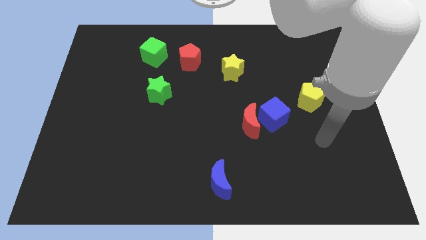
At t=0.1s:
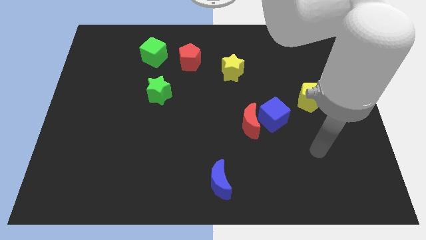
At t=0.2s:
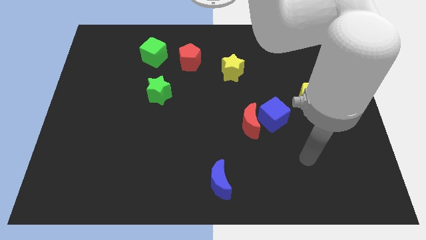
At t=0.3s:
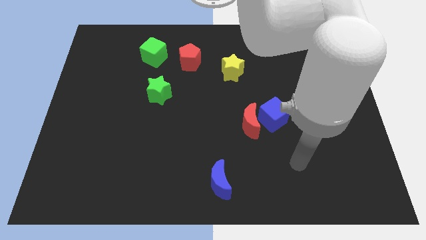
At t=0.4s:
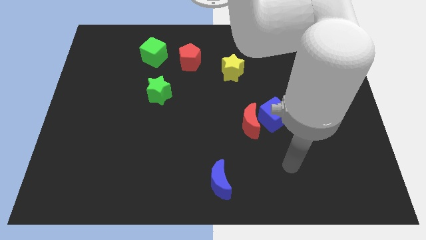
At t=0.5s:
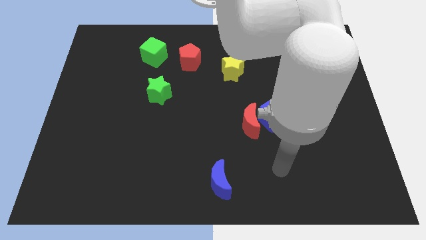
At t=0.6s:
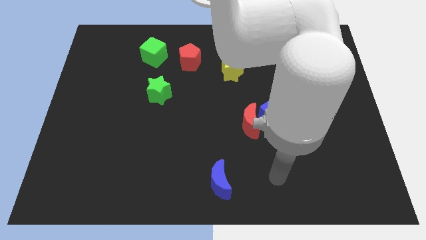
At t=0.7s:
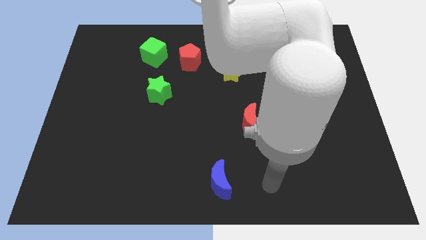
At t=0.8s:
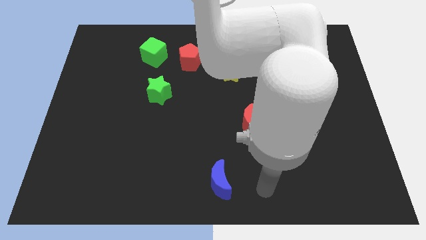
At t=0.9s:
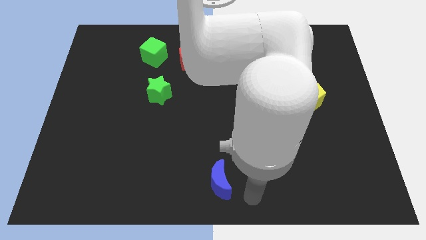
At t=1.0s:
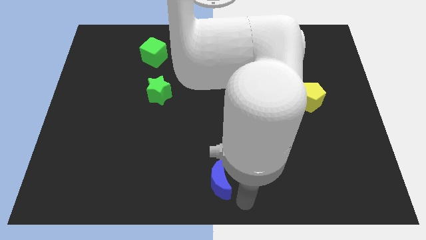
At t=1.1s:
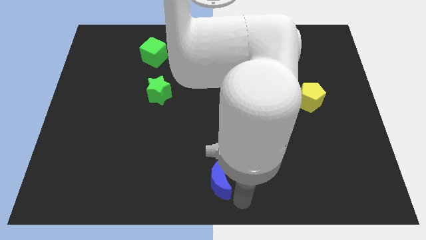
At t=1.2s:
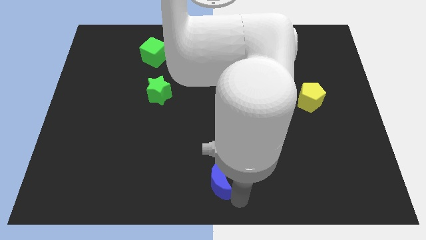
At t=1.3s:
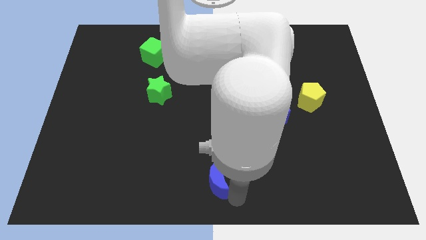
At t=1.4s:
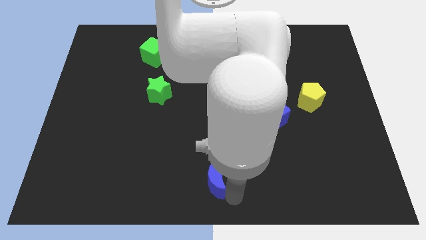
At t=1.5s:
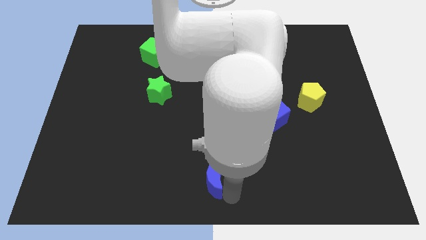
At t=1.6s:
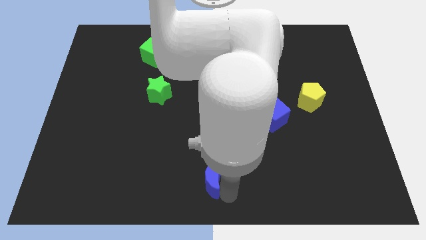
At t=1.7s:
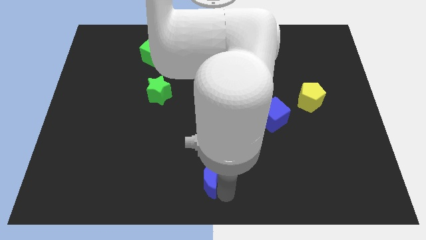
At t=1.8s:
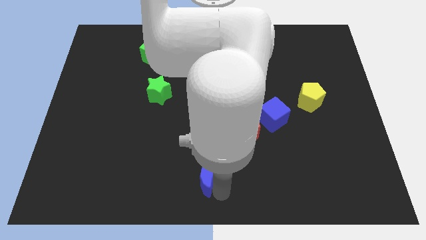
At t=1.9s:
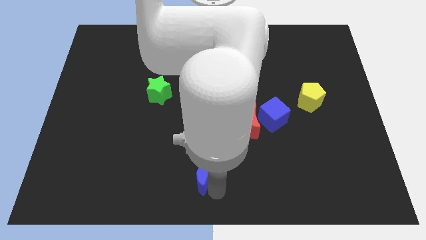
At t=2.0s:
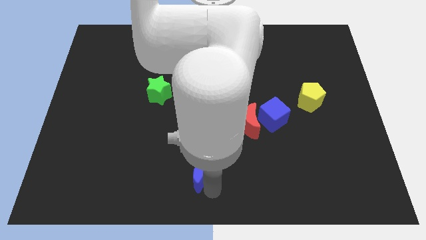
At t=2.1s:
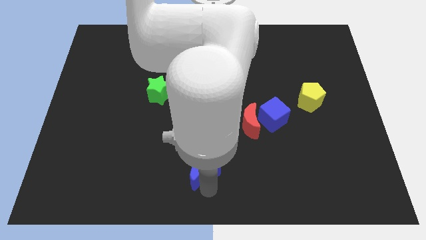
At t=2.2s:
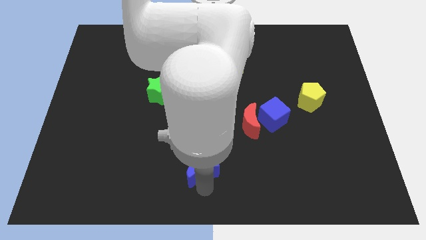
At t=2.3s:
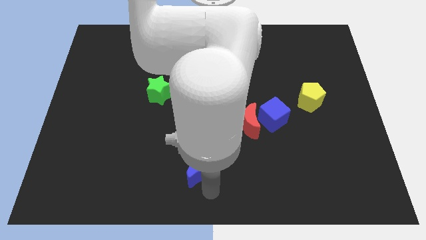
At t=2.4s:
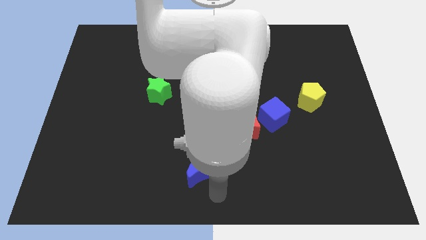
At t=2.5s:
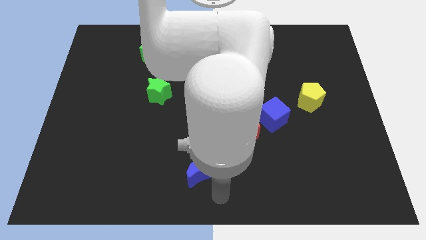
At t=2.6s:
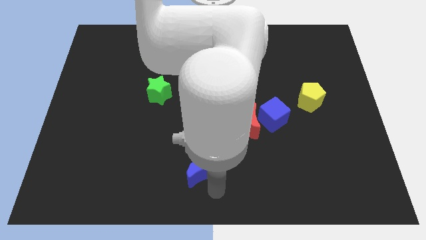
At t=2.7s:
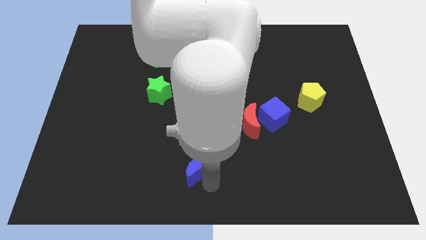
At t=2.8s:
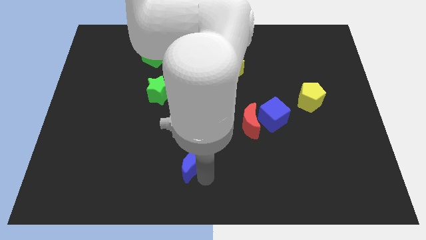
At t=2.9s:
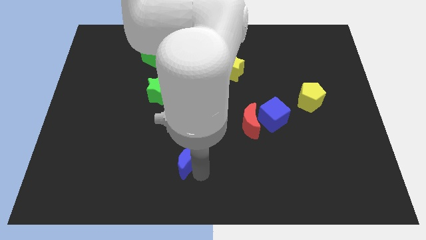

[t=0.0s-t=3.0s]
push the blue moon a little bit diagonally up and left

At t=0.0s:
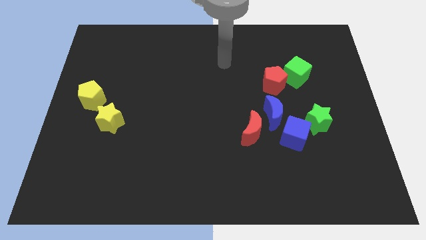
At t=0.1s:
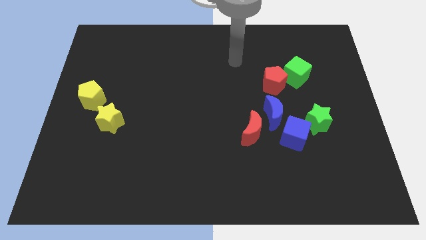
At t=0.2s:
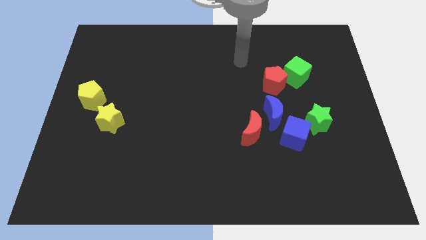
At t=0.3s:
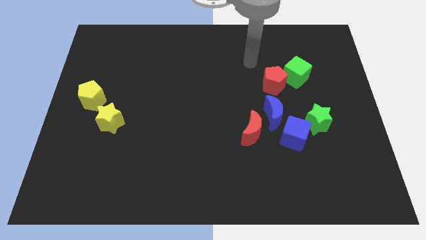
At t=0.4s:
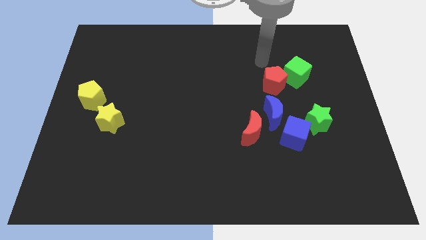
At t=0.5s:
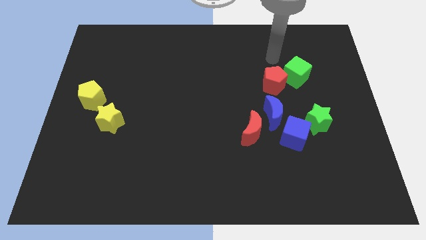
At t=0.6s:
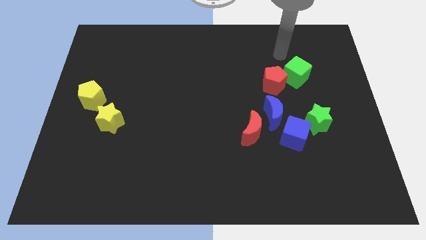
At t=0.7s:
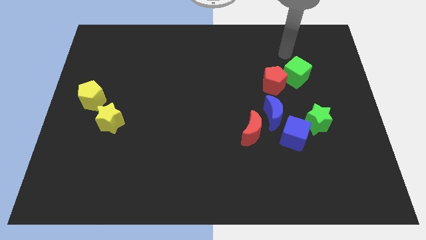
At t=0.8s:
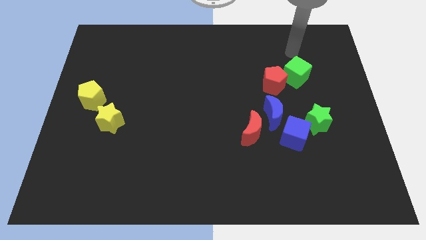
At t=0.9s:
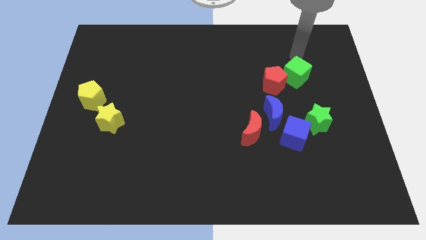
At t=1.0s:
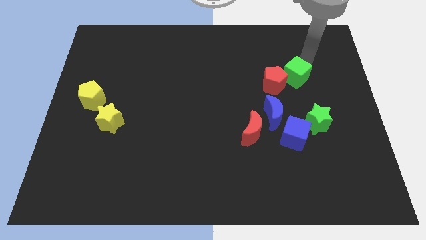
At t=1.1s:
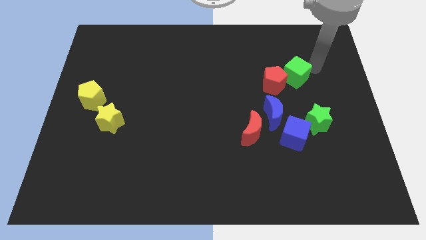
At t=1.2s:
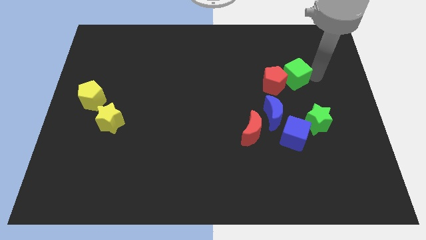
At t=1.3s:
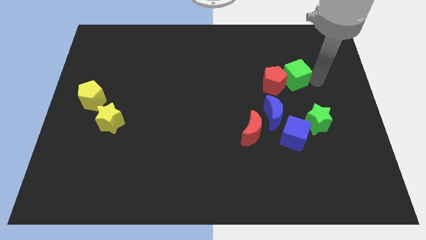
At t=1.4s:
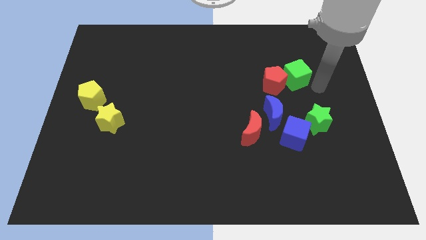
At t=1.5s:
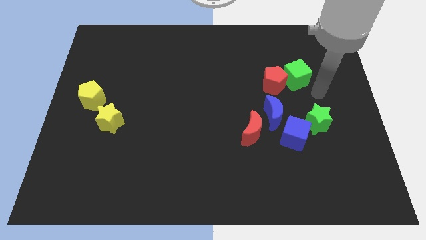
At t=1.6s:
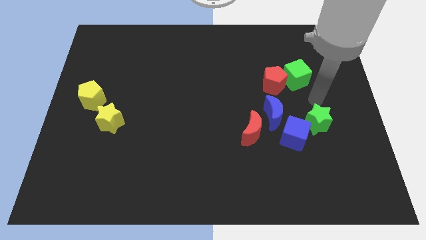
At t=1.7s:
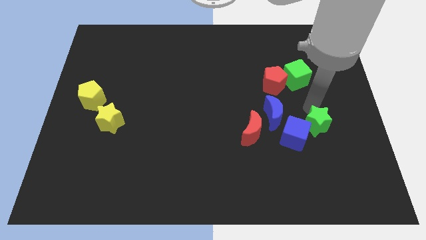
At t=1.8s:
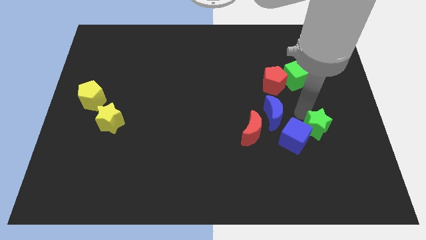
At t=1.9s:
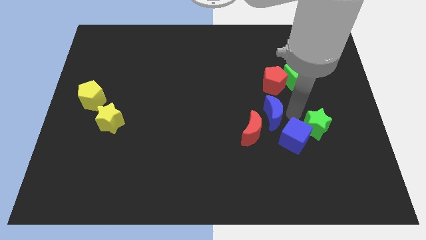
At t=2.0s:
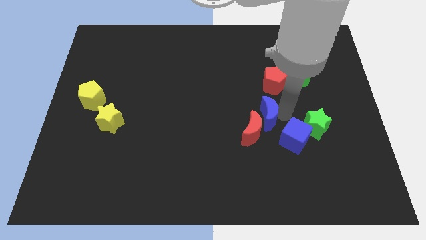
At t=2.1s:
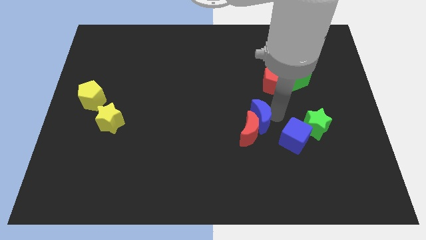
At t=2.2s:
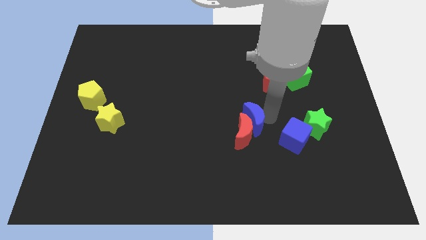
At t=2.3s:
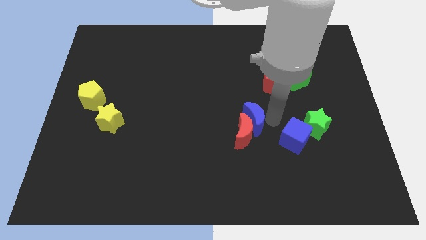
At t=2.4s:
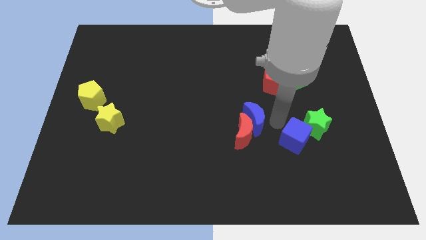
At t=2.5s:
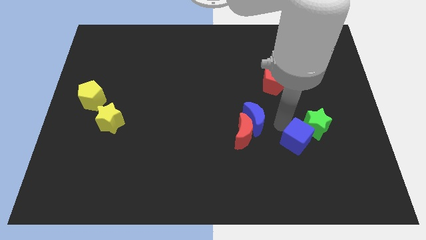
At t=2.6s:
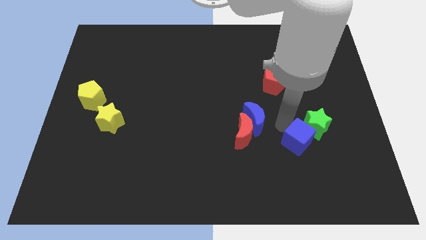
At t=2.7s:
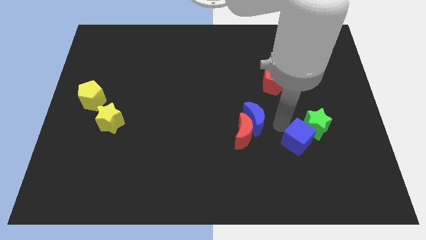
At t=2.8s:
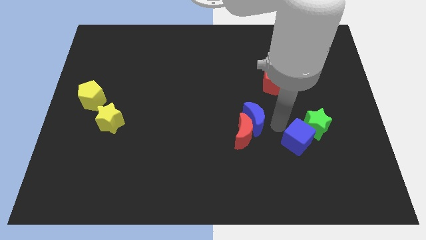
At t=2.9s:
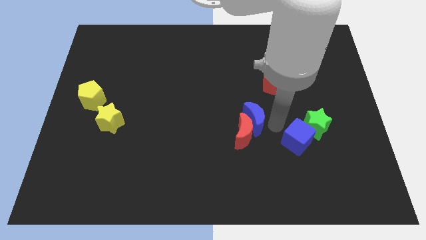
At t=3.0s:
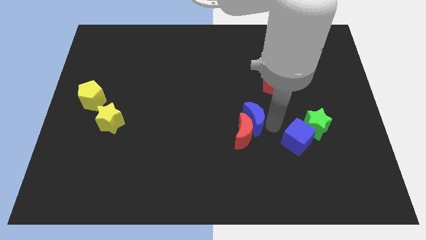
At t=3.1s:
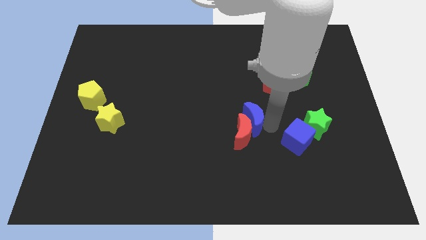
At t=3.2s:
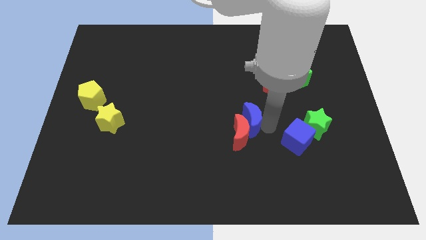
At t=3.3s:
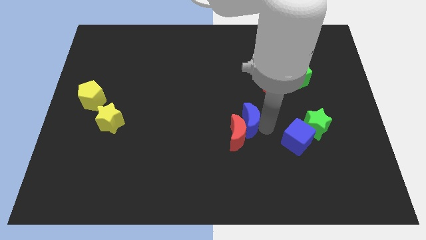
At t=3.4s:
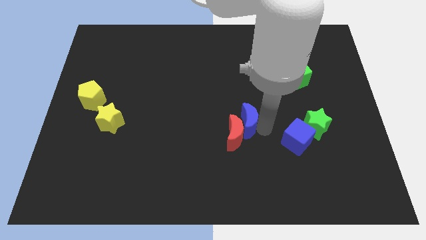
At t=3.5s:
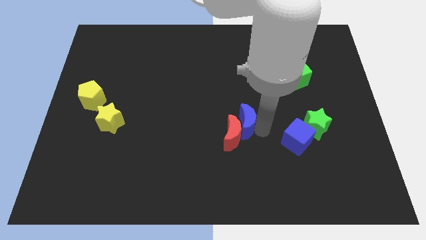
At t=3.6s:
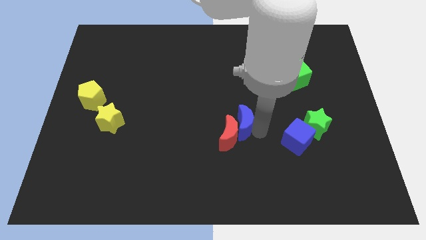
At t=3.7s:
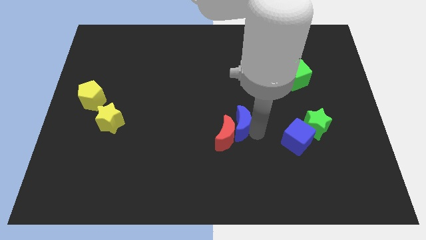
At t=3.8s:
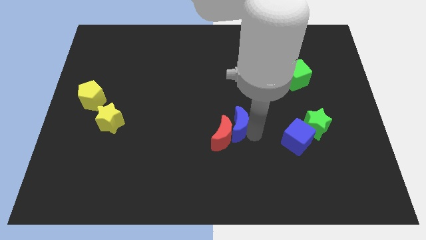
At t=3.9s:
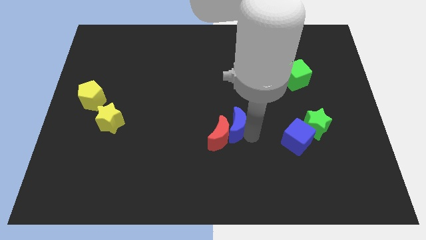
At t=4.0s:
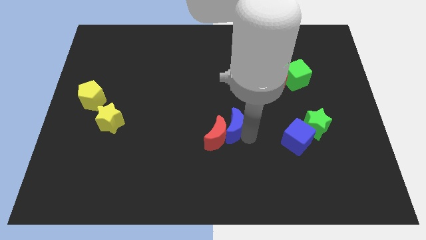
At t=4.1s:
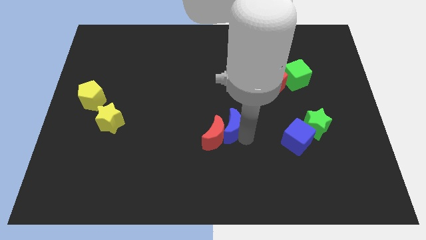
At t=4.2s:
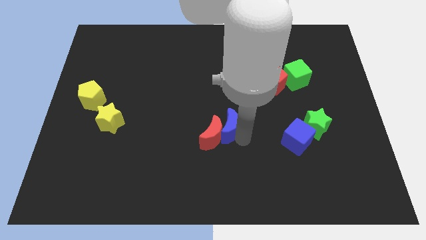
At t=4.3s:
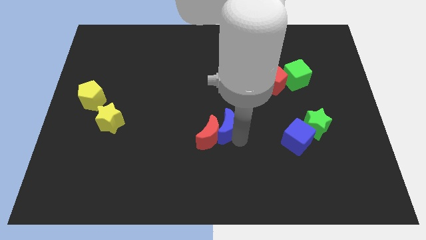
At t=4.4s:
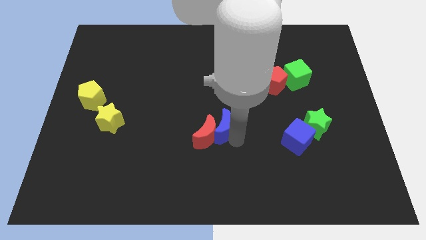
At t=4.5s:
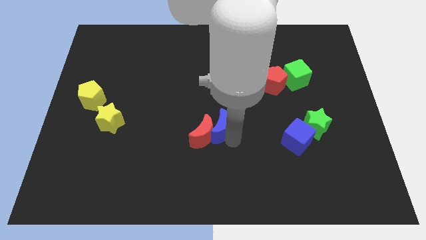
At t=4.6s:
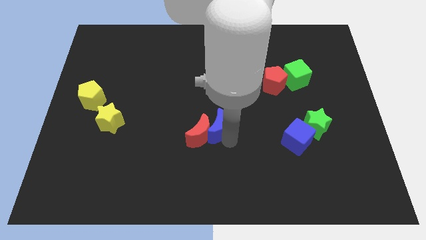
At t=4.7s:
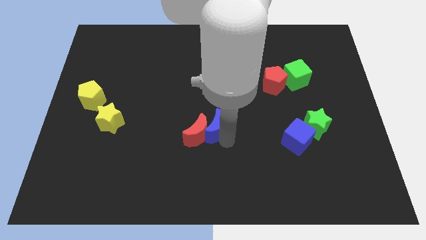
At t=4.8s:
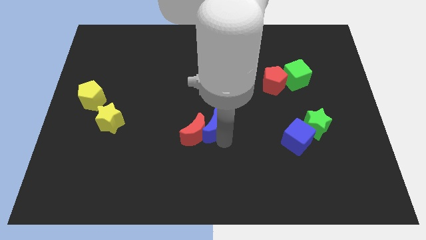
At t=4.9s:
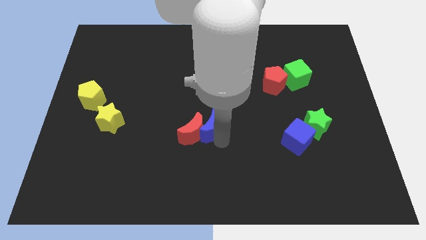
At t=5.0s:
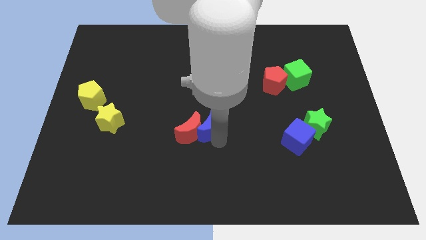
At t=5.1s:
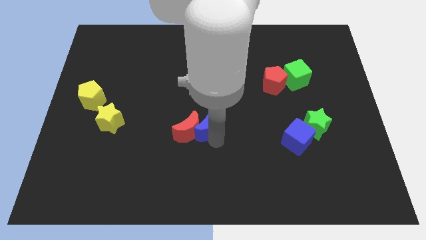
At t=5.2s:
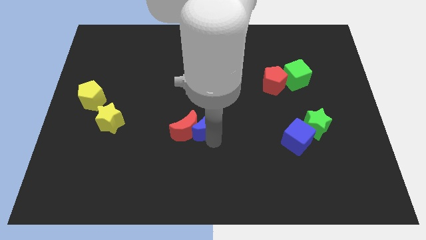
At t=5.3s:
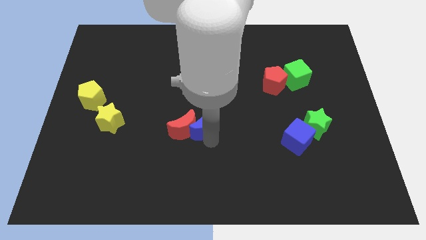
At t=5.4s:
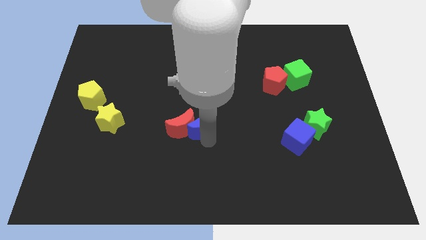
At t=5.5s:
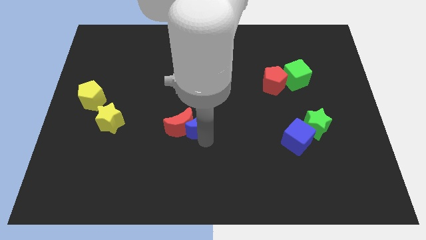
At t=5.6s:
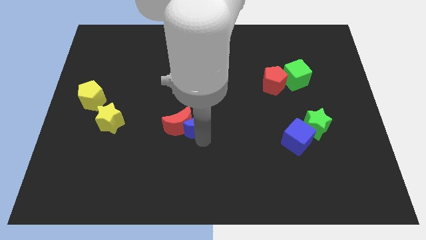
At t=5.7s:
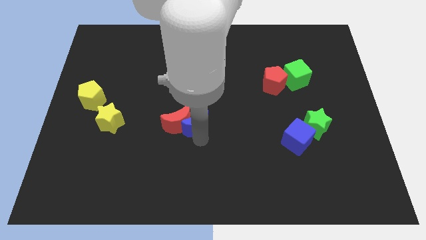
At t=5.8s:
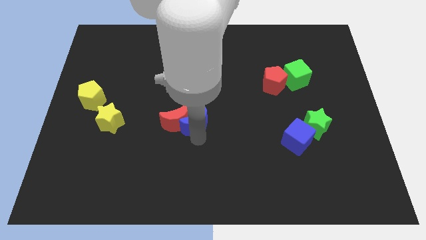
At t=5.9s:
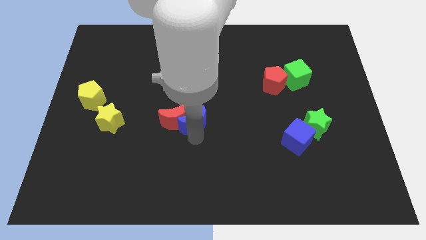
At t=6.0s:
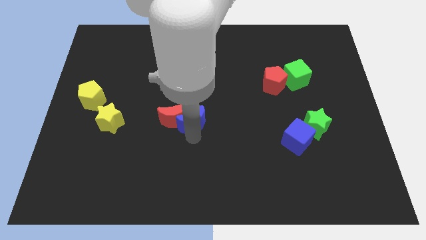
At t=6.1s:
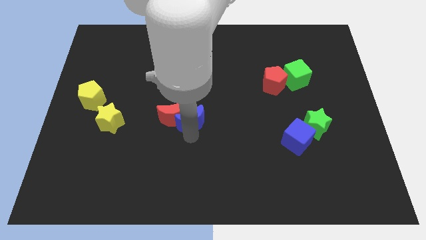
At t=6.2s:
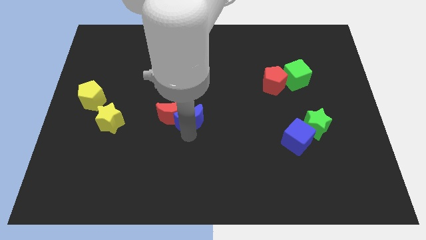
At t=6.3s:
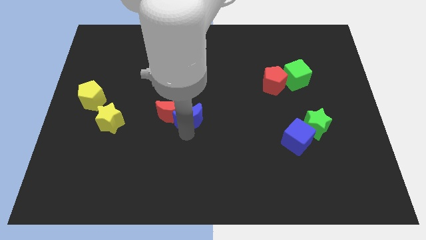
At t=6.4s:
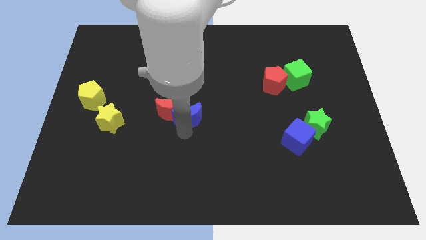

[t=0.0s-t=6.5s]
push the blue moon to the left
